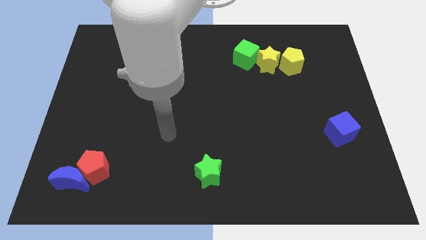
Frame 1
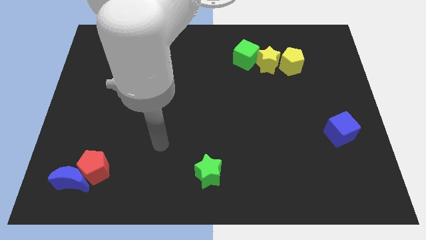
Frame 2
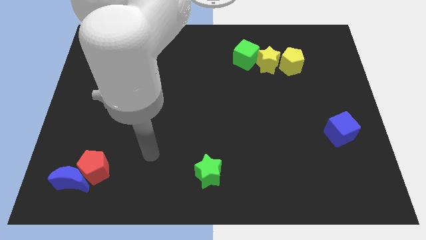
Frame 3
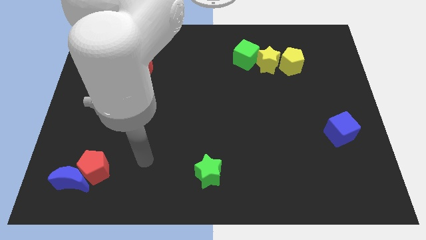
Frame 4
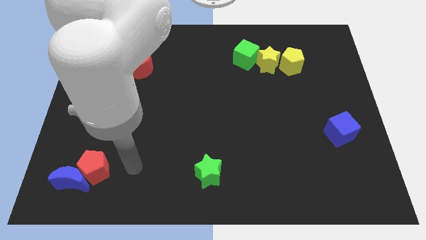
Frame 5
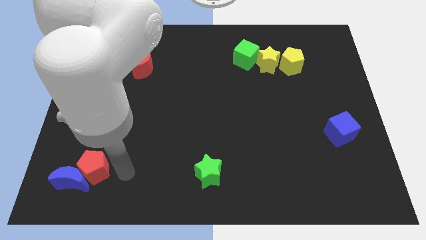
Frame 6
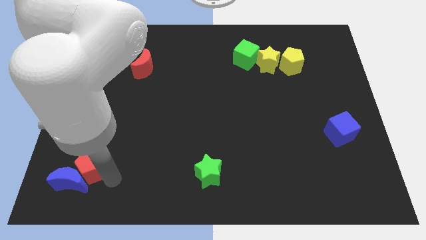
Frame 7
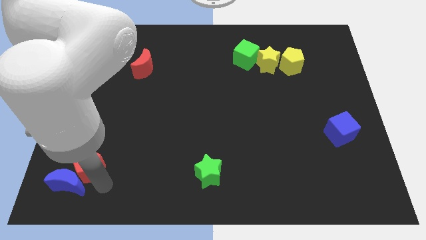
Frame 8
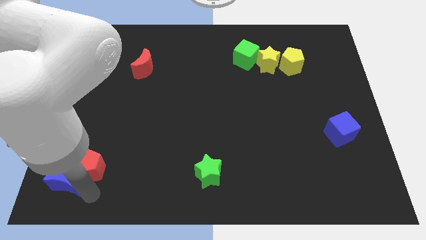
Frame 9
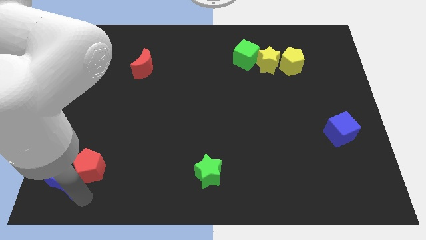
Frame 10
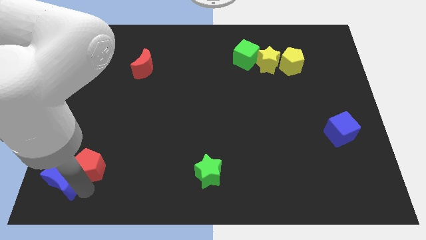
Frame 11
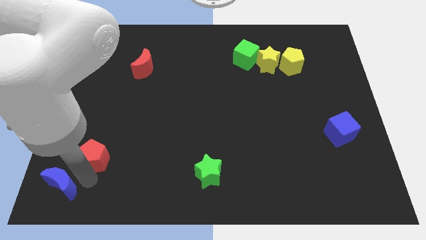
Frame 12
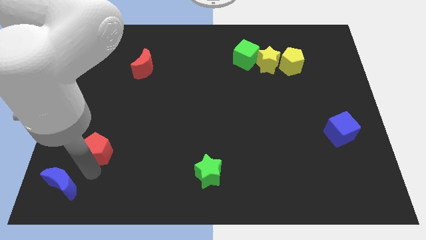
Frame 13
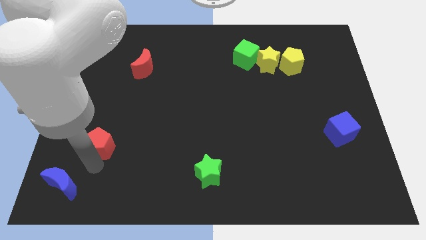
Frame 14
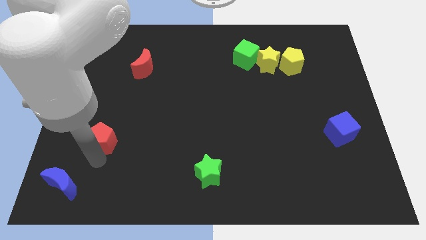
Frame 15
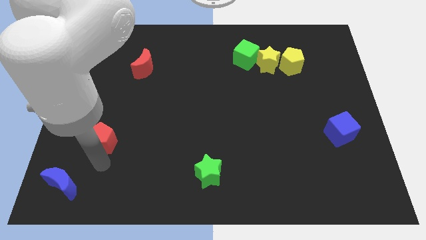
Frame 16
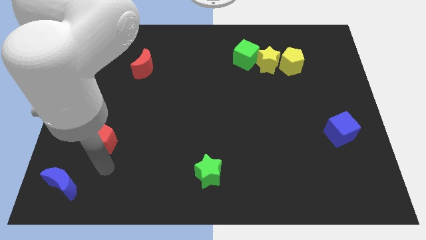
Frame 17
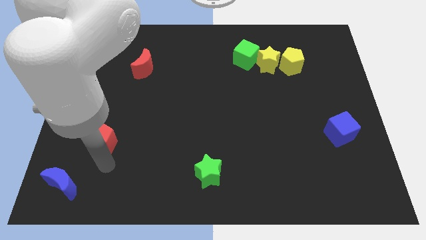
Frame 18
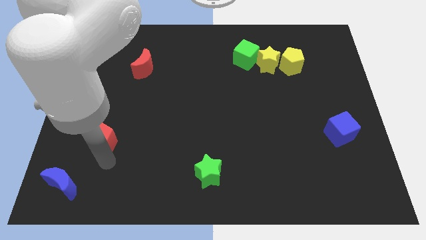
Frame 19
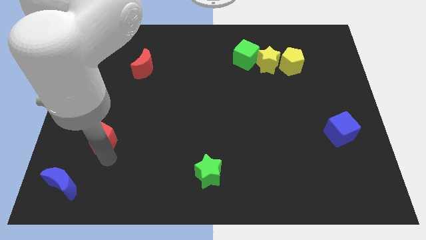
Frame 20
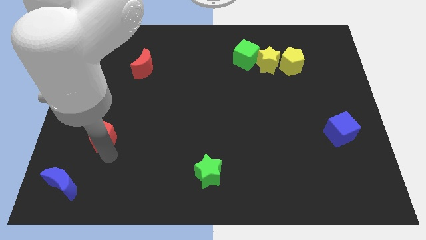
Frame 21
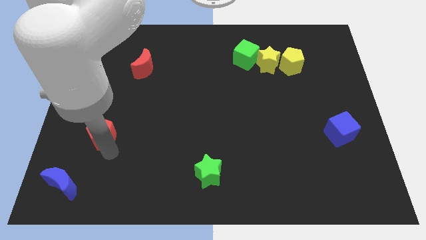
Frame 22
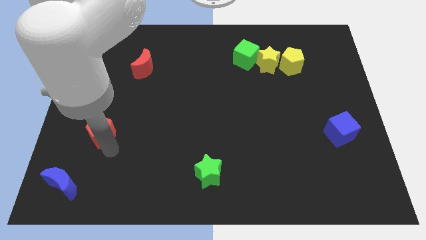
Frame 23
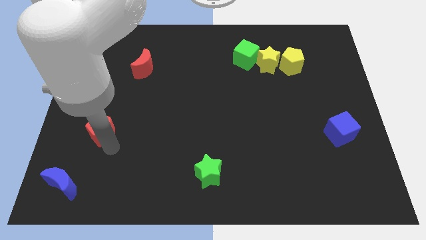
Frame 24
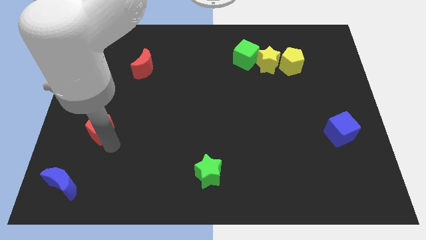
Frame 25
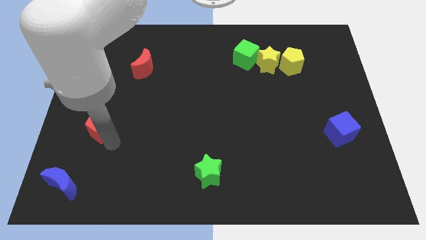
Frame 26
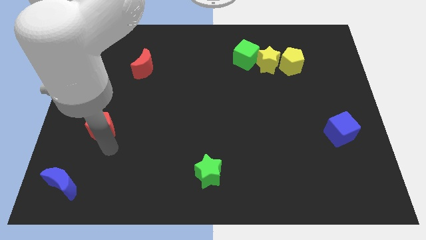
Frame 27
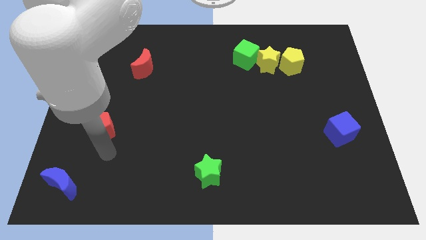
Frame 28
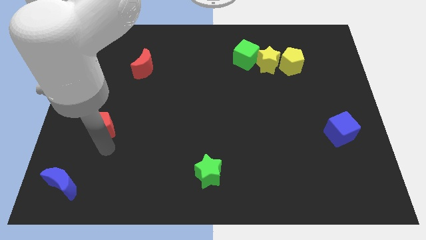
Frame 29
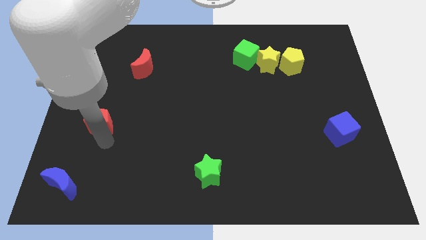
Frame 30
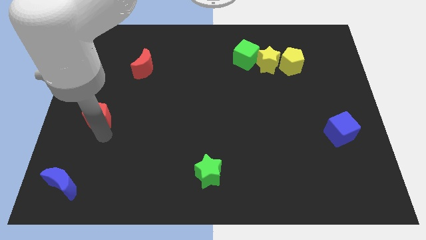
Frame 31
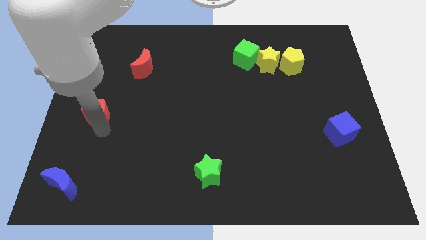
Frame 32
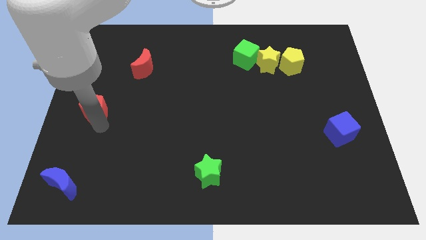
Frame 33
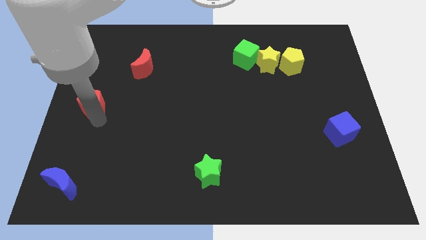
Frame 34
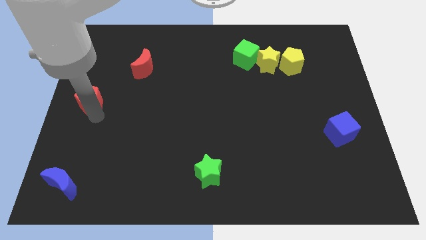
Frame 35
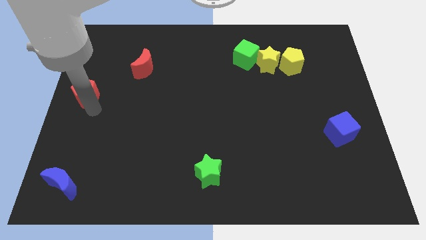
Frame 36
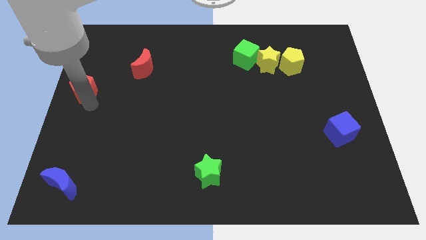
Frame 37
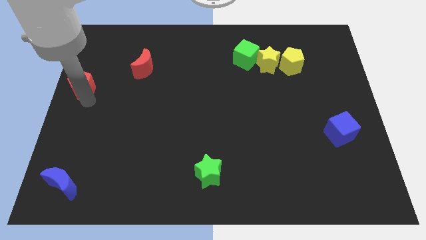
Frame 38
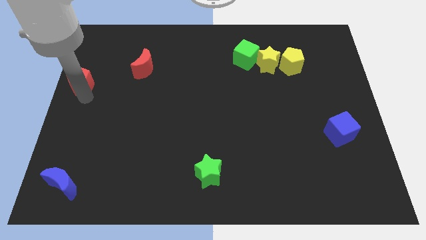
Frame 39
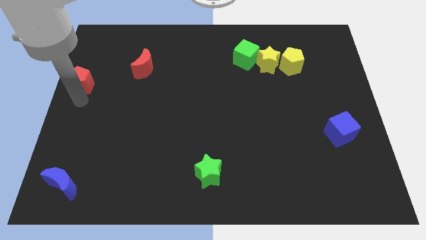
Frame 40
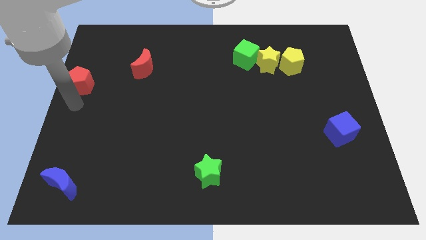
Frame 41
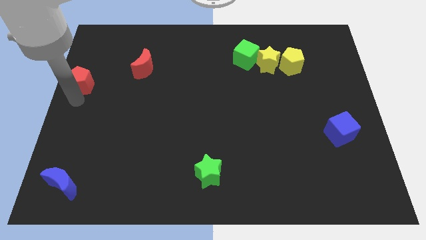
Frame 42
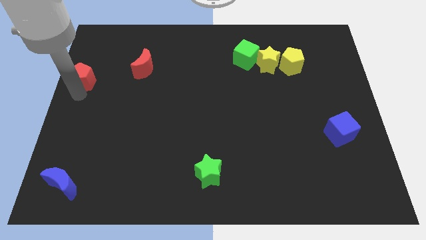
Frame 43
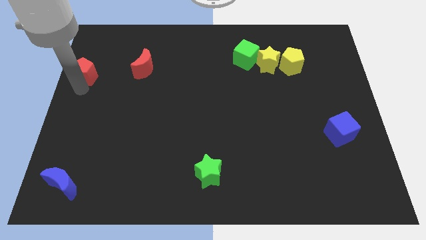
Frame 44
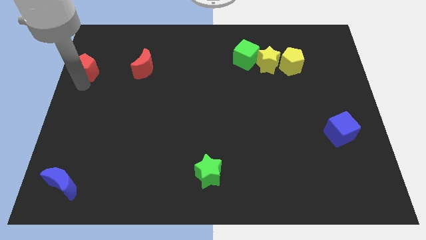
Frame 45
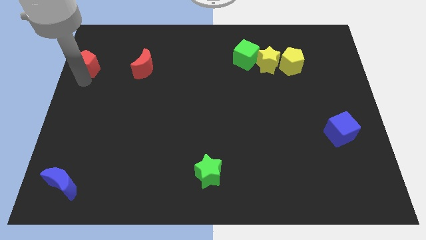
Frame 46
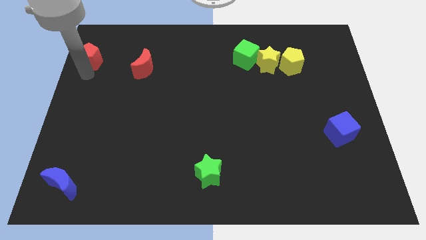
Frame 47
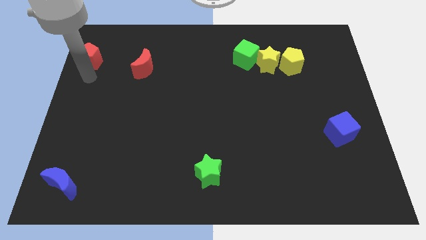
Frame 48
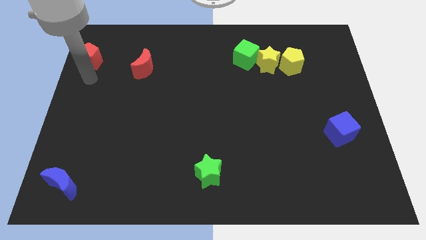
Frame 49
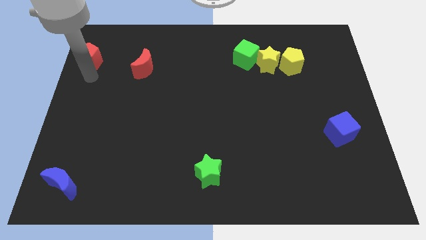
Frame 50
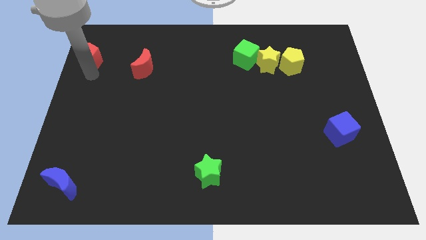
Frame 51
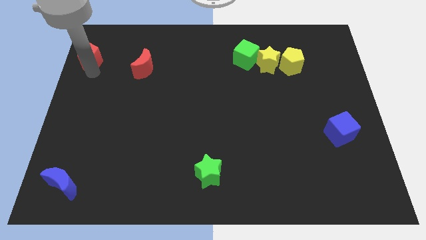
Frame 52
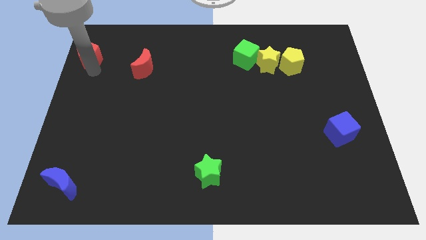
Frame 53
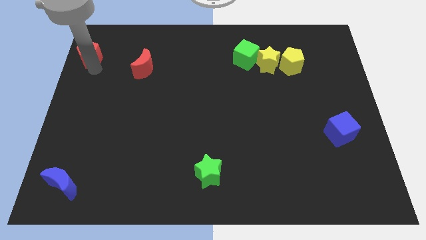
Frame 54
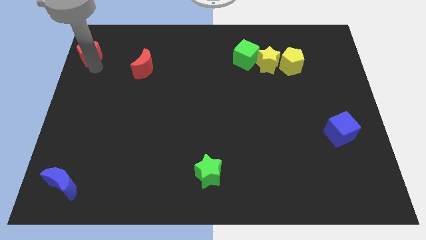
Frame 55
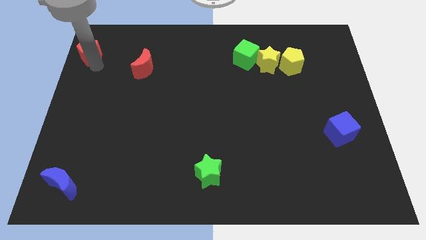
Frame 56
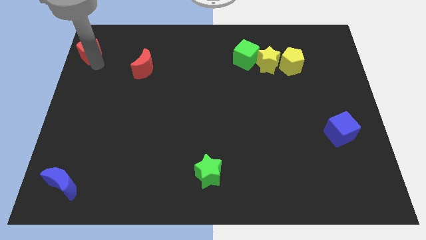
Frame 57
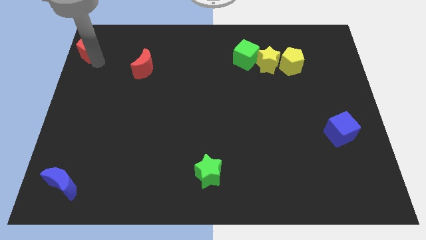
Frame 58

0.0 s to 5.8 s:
push the red pentagon to the top left of the board

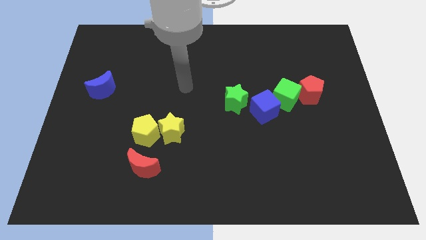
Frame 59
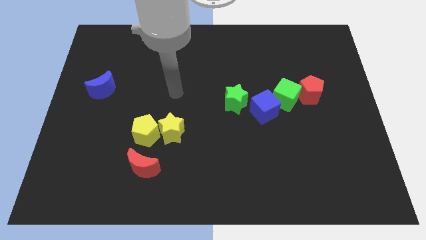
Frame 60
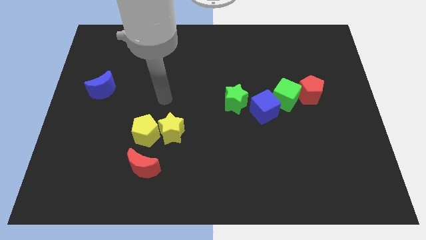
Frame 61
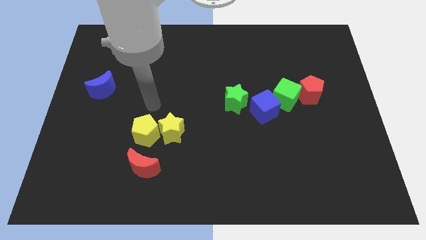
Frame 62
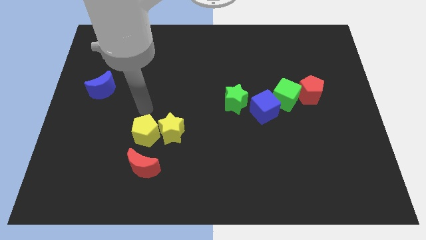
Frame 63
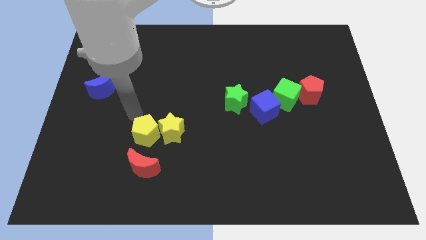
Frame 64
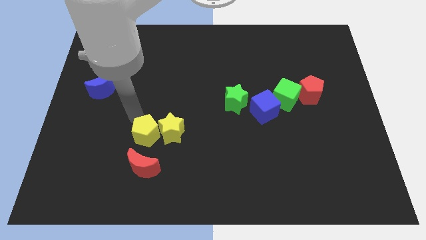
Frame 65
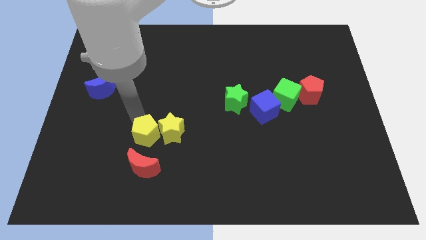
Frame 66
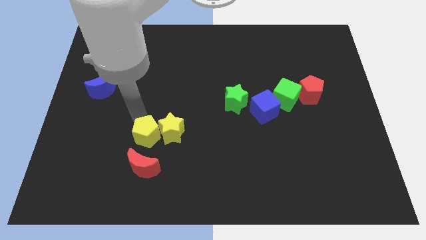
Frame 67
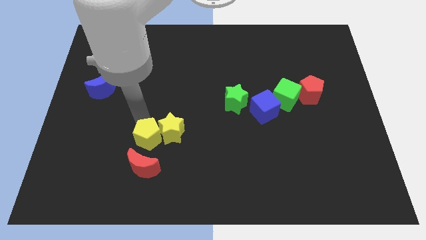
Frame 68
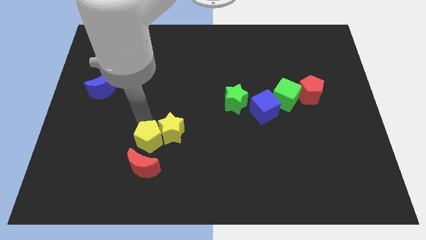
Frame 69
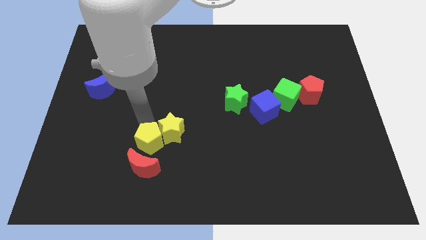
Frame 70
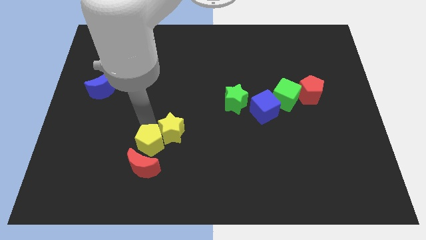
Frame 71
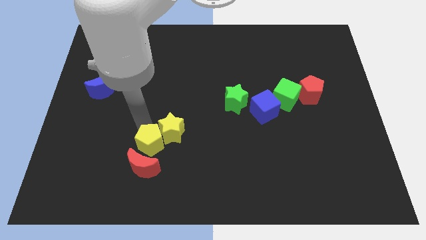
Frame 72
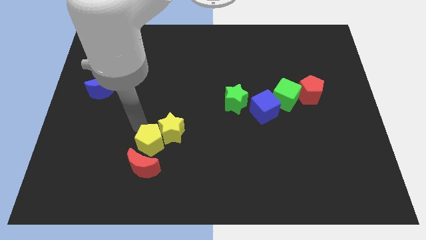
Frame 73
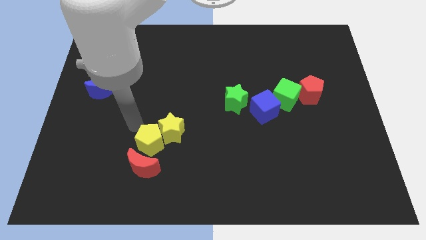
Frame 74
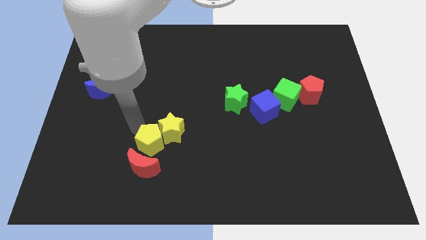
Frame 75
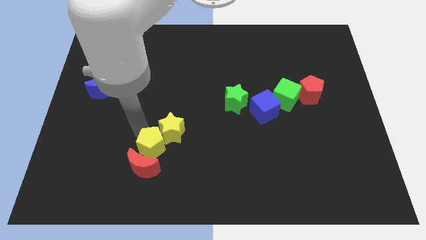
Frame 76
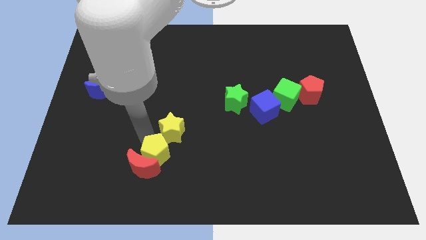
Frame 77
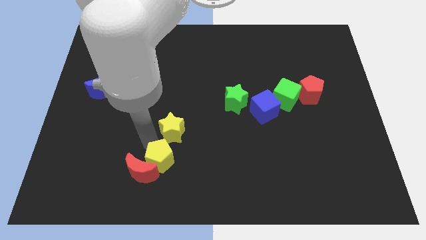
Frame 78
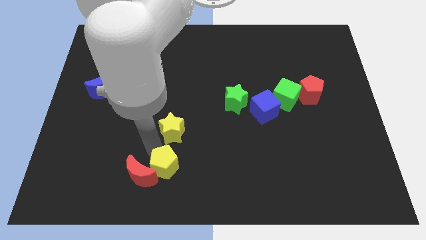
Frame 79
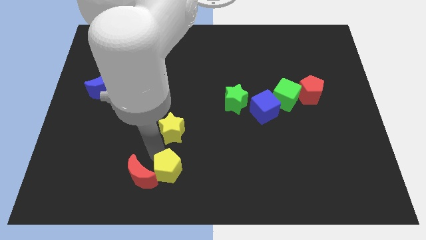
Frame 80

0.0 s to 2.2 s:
push the yellow pentagon to the bottom
